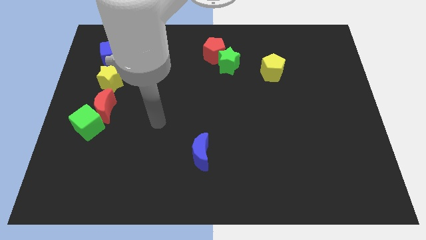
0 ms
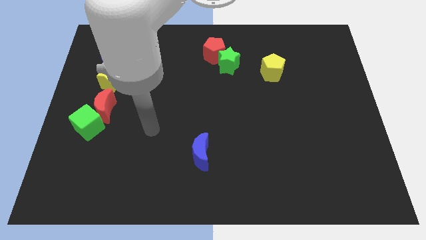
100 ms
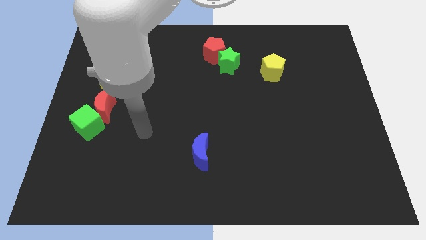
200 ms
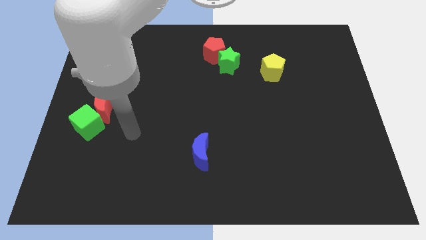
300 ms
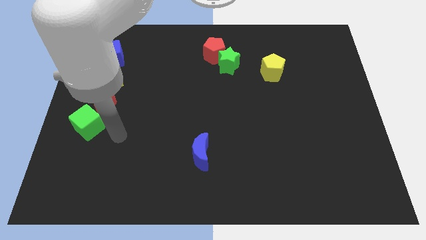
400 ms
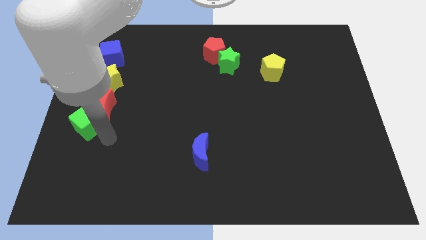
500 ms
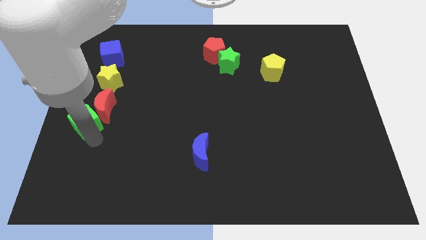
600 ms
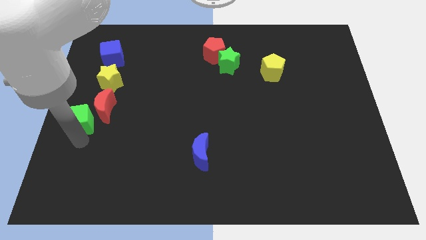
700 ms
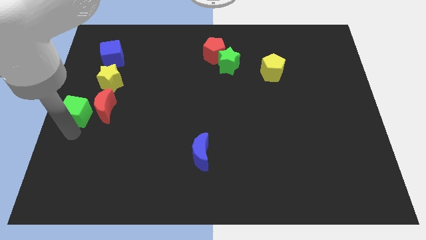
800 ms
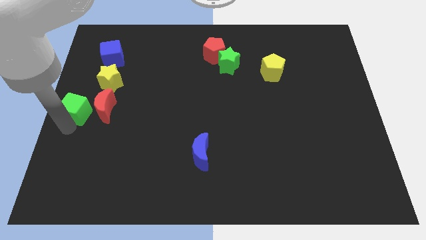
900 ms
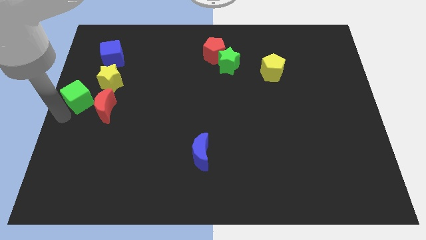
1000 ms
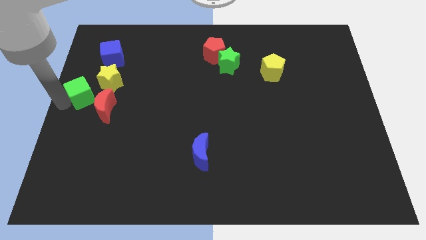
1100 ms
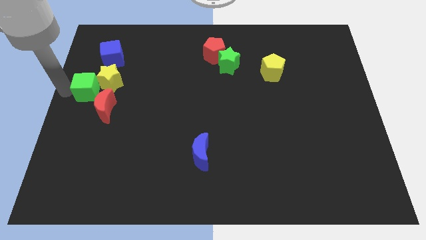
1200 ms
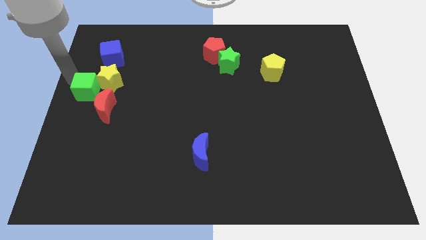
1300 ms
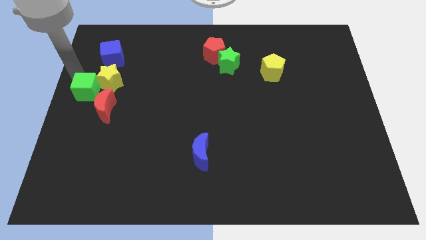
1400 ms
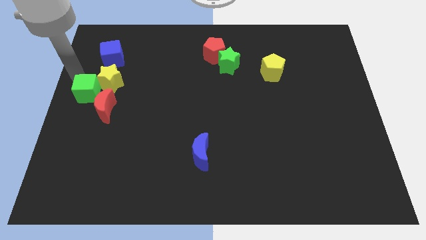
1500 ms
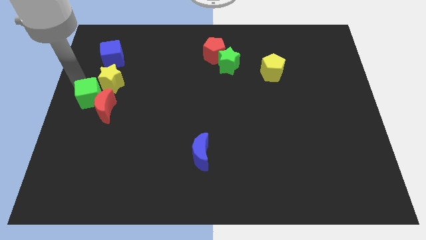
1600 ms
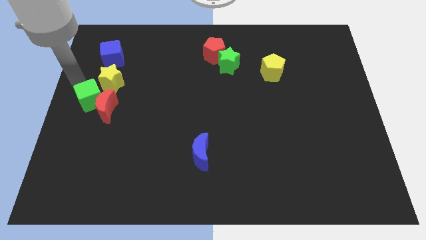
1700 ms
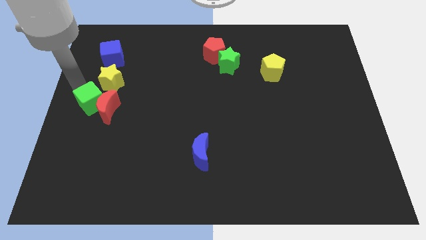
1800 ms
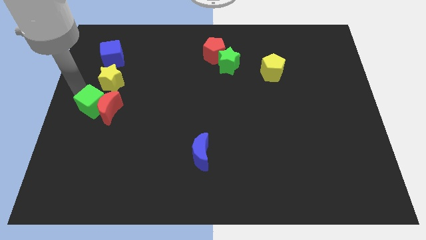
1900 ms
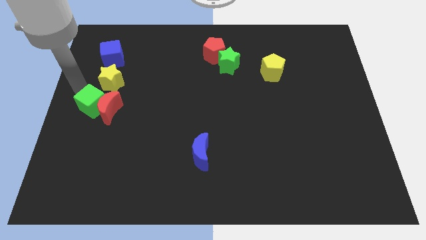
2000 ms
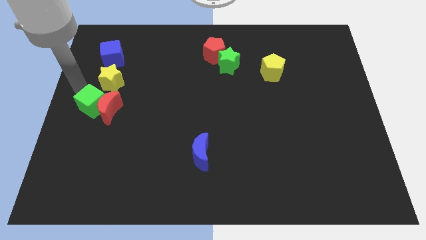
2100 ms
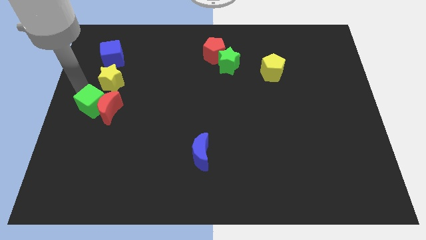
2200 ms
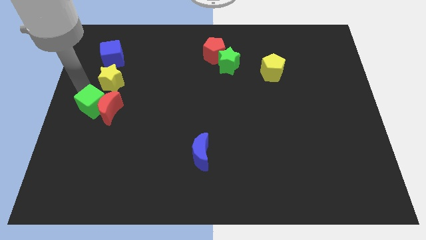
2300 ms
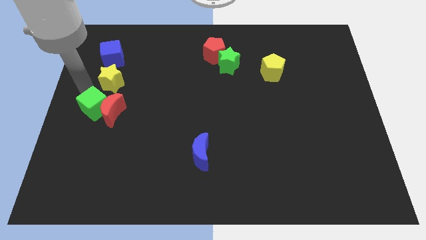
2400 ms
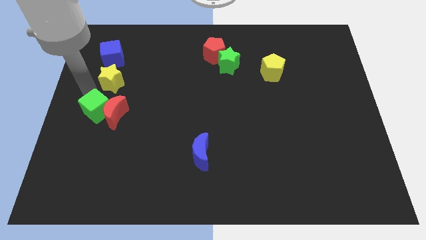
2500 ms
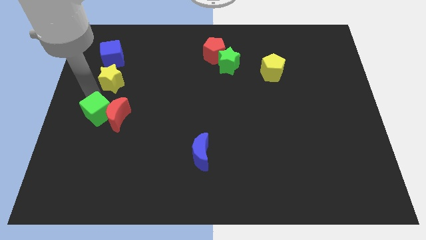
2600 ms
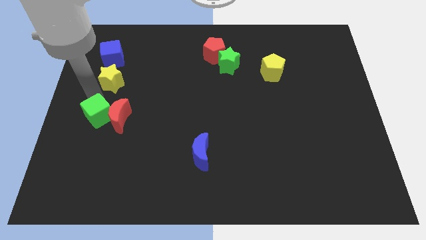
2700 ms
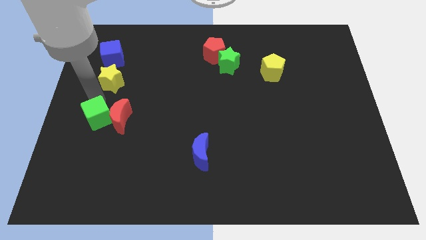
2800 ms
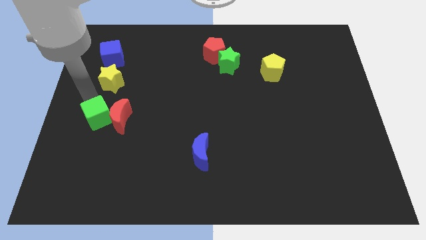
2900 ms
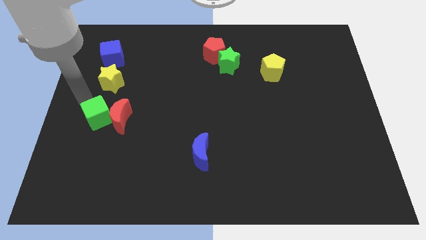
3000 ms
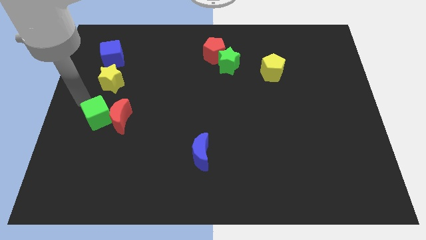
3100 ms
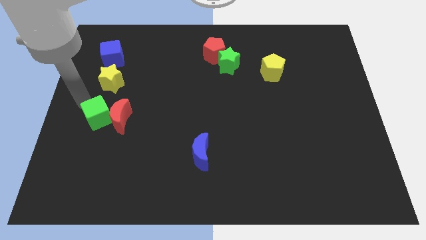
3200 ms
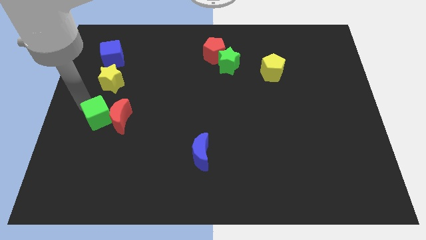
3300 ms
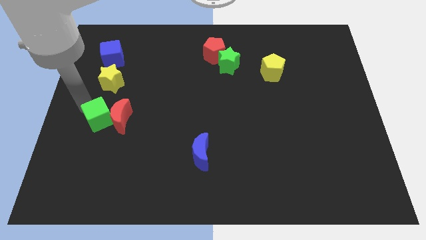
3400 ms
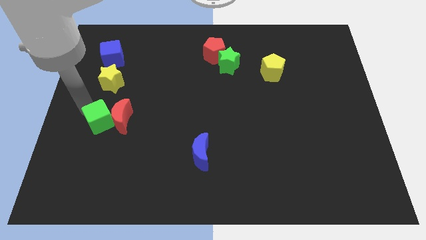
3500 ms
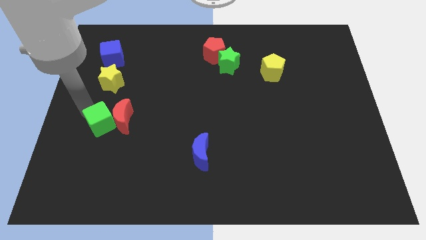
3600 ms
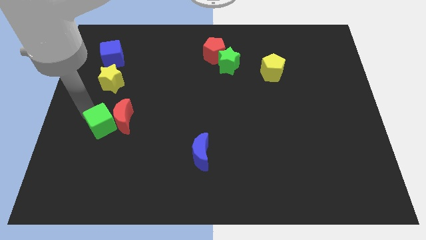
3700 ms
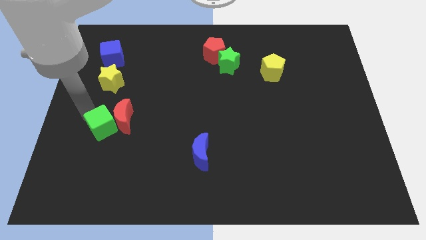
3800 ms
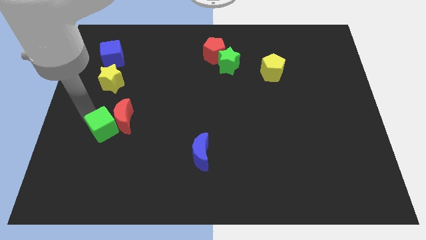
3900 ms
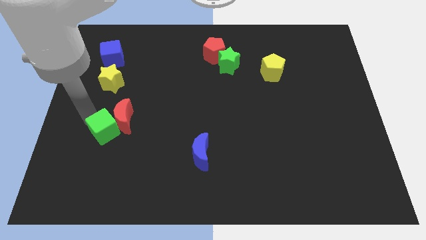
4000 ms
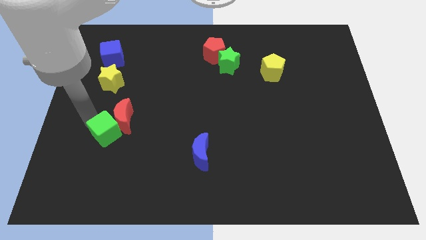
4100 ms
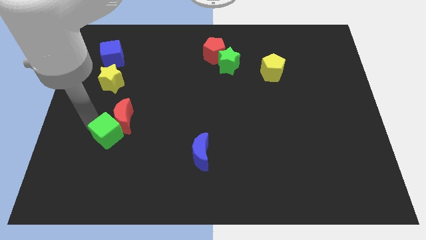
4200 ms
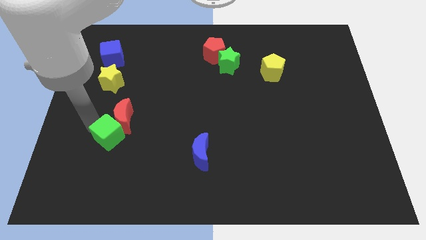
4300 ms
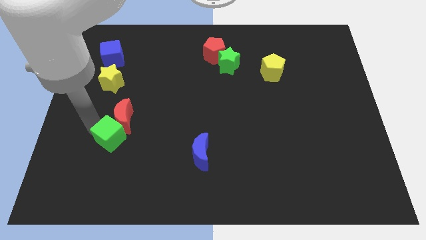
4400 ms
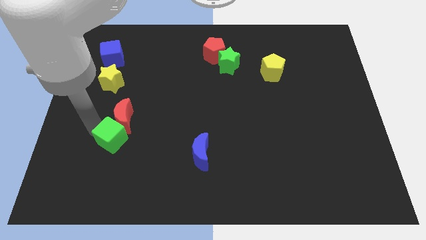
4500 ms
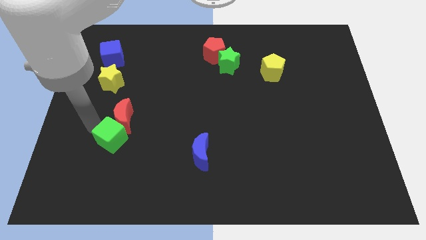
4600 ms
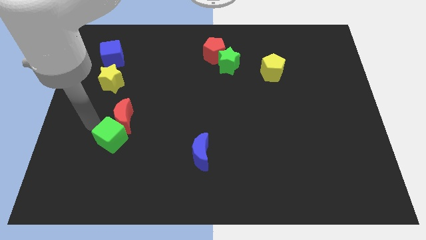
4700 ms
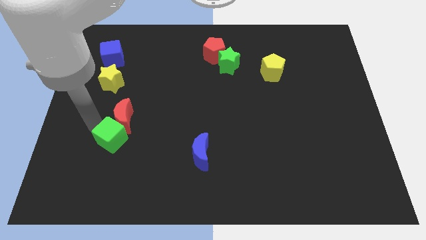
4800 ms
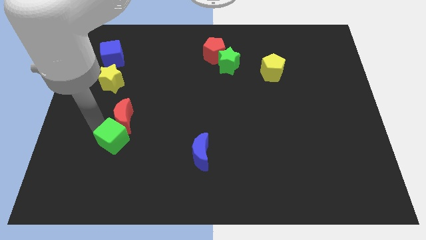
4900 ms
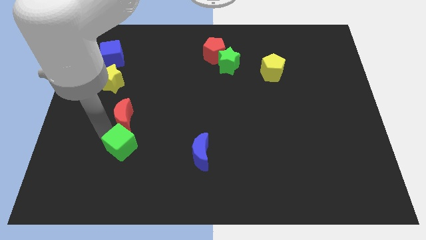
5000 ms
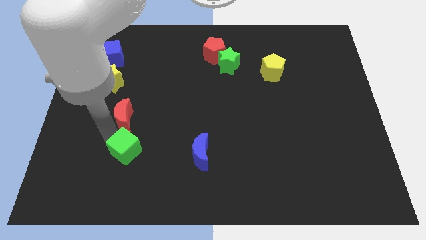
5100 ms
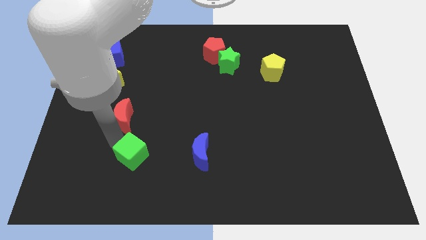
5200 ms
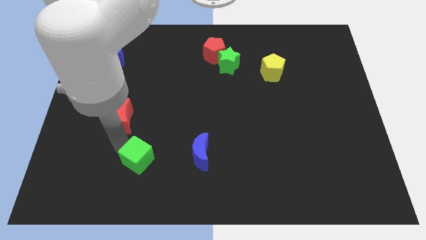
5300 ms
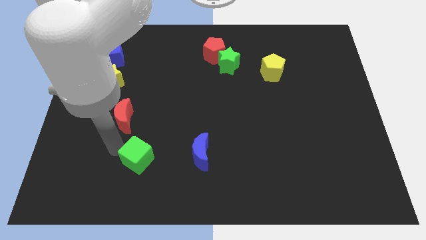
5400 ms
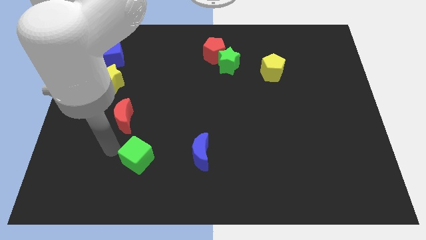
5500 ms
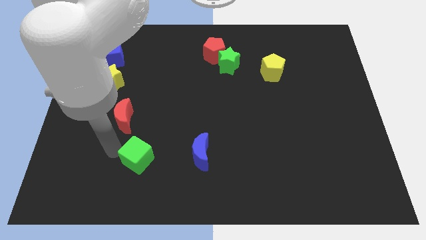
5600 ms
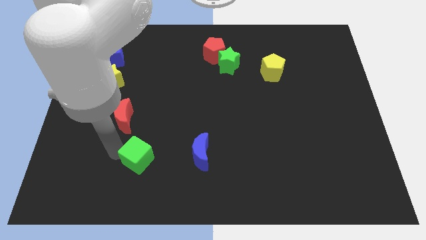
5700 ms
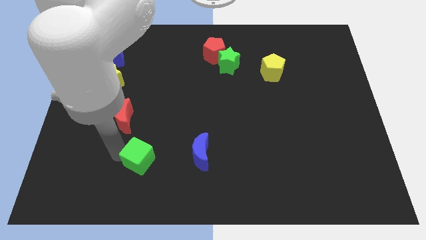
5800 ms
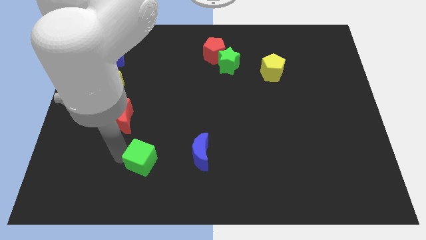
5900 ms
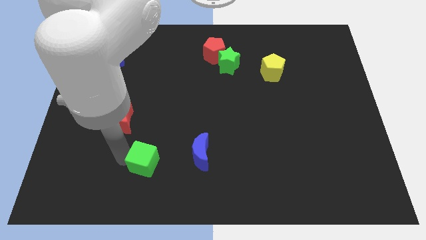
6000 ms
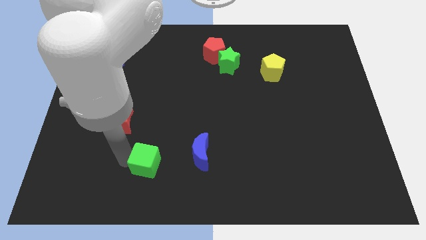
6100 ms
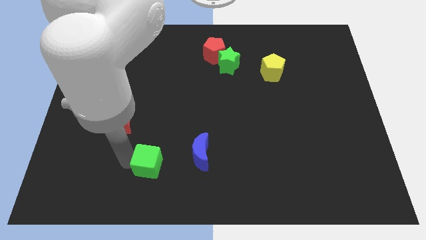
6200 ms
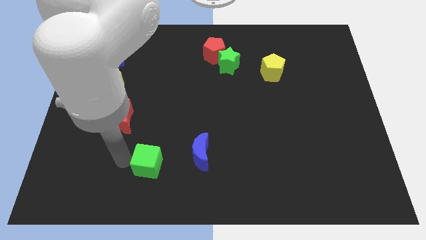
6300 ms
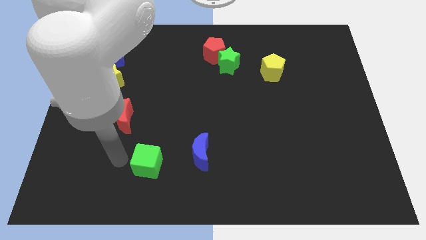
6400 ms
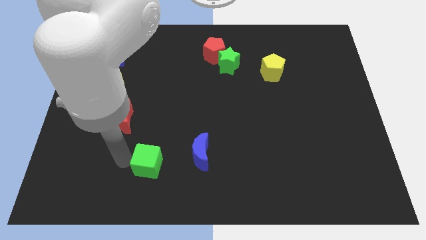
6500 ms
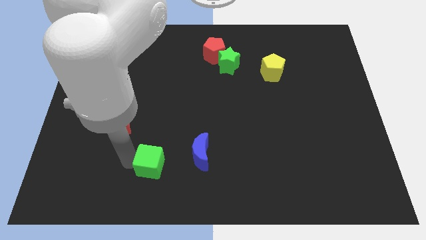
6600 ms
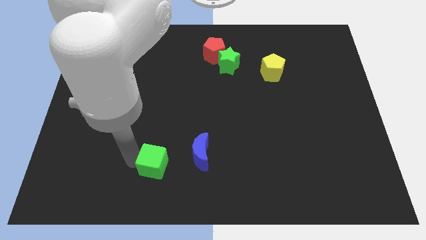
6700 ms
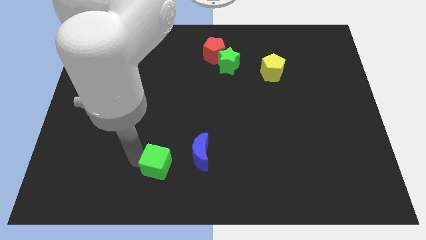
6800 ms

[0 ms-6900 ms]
slide the green cube diagonally down and to the left of the blue moon
